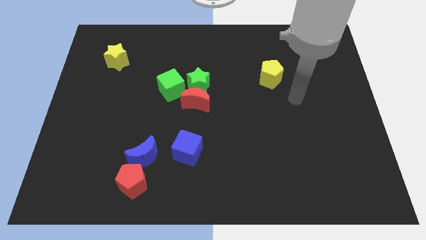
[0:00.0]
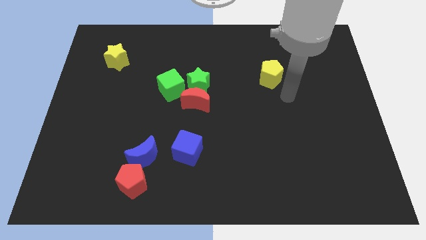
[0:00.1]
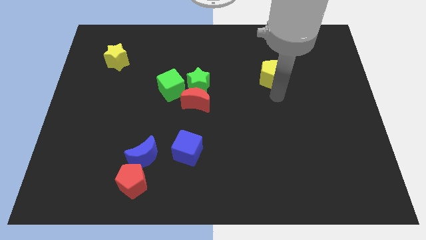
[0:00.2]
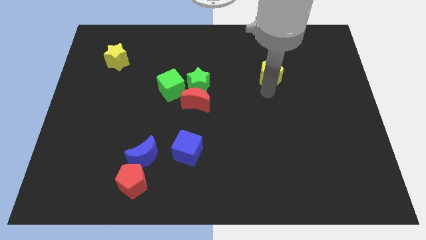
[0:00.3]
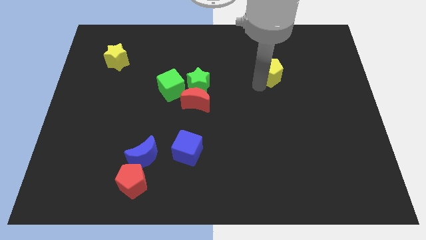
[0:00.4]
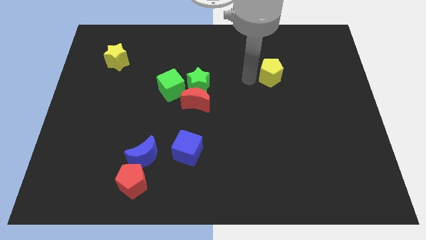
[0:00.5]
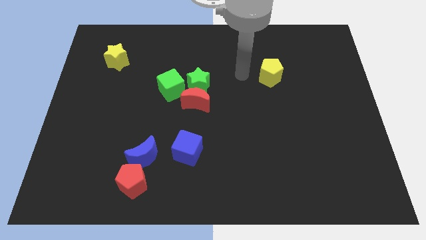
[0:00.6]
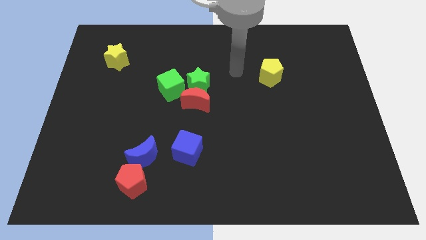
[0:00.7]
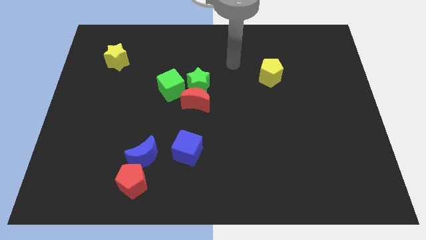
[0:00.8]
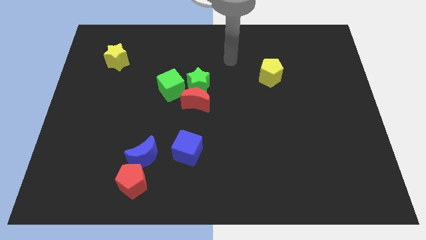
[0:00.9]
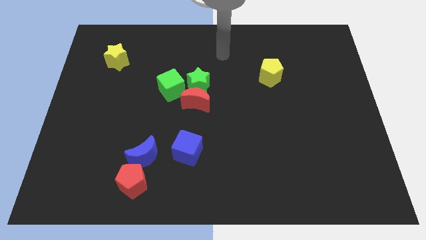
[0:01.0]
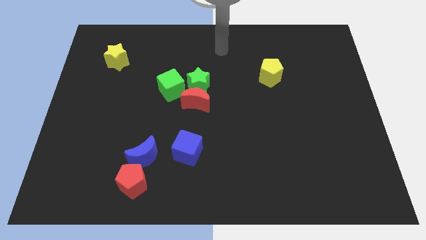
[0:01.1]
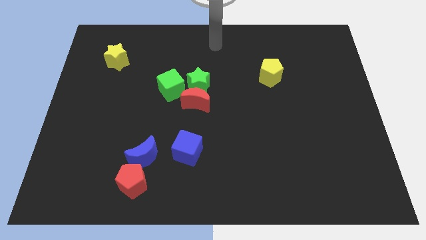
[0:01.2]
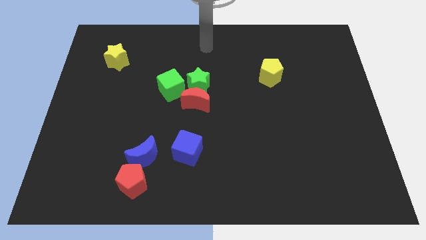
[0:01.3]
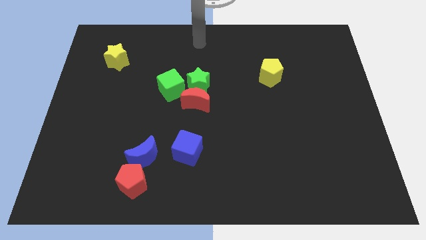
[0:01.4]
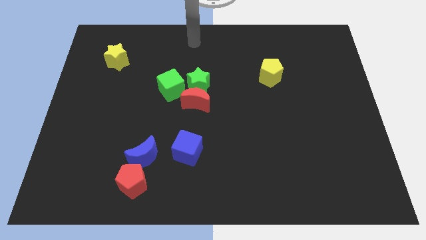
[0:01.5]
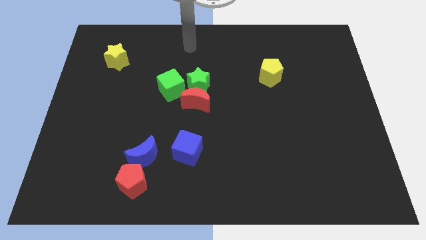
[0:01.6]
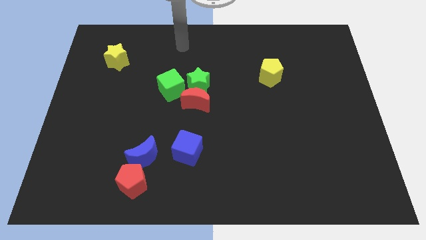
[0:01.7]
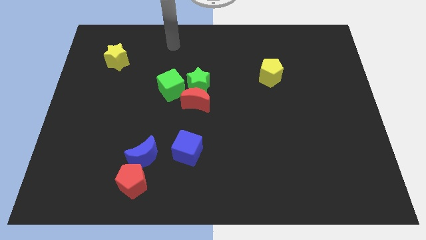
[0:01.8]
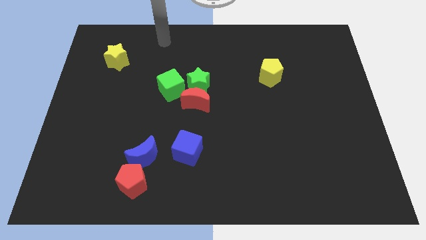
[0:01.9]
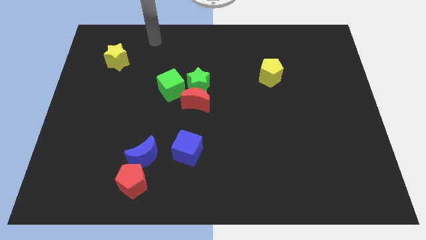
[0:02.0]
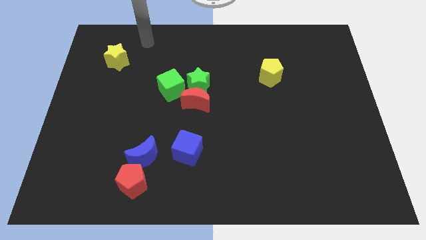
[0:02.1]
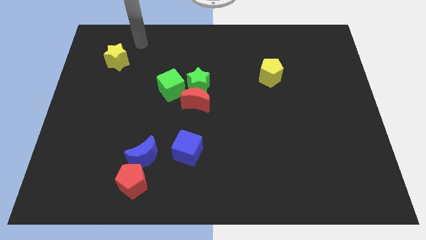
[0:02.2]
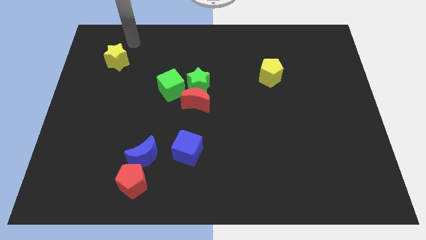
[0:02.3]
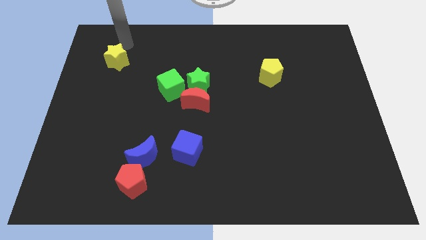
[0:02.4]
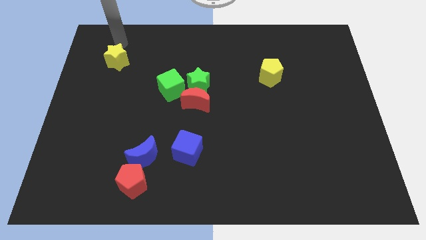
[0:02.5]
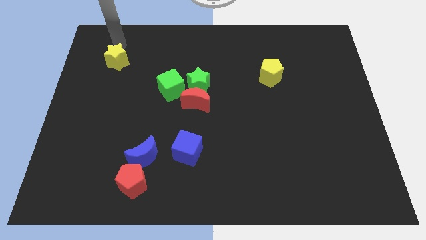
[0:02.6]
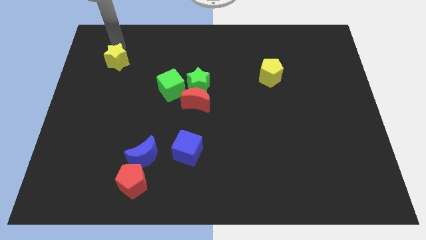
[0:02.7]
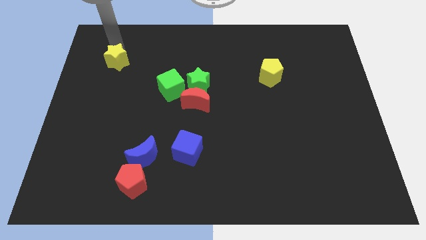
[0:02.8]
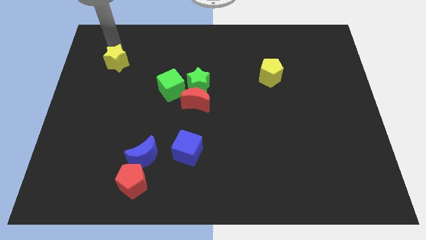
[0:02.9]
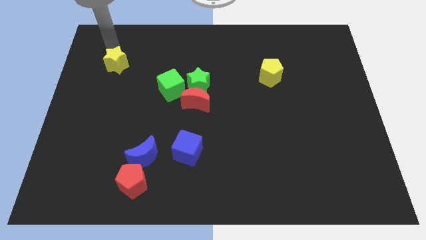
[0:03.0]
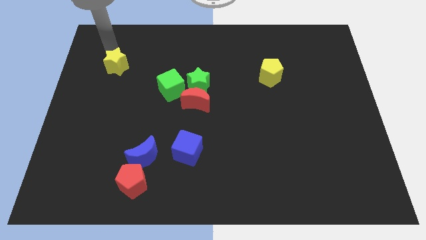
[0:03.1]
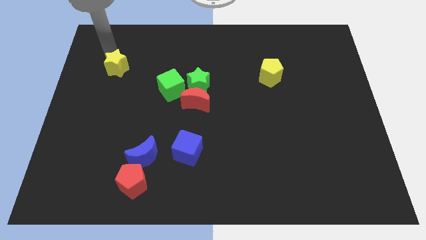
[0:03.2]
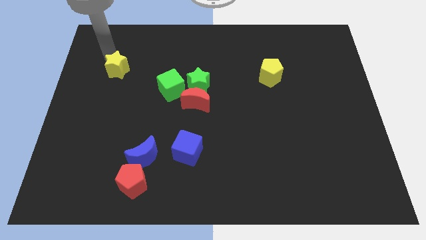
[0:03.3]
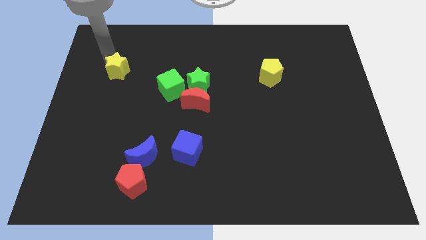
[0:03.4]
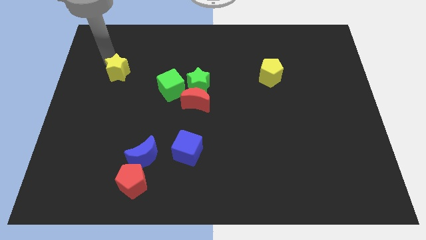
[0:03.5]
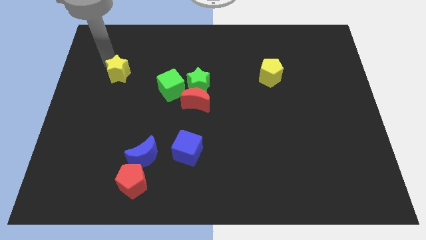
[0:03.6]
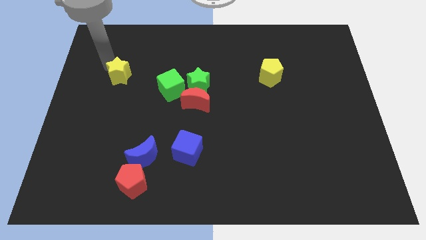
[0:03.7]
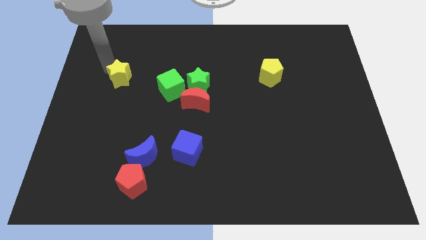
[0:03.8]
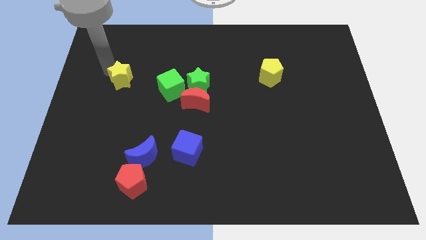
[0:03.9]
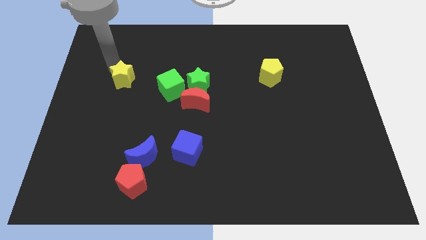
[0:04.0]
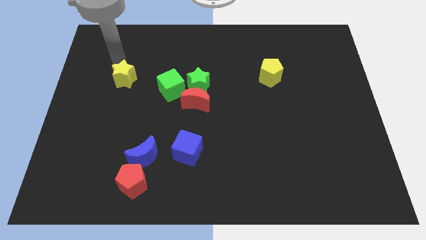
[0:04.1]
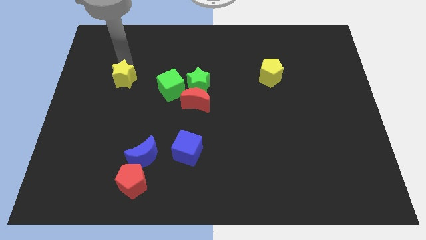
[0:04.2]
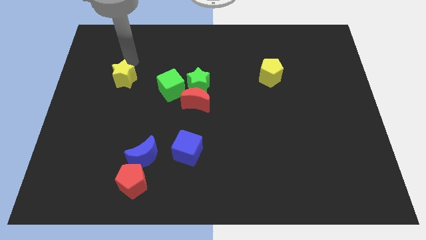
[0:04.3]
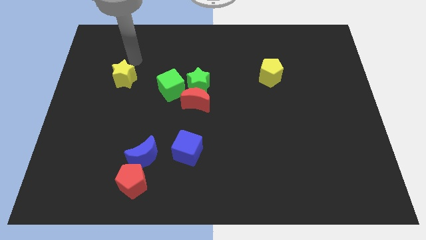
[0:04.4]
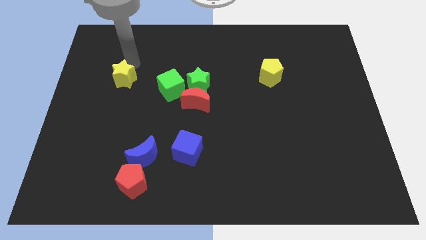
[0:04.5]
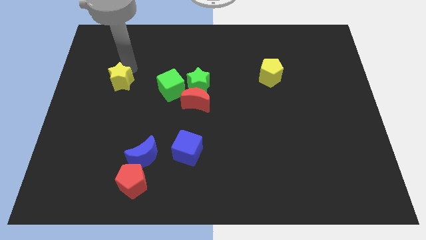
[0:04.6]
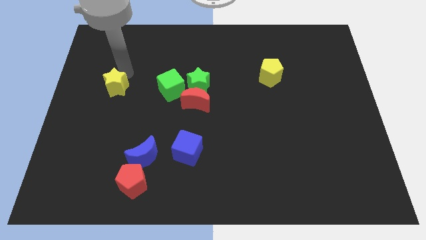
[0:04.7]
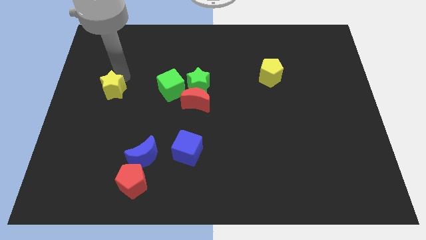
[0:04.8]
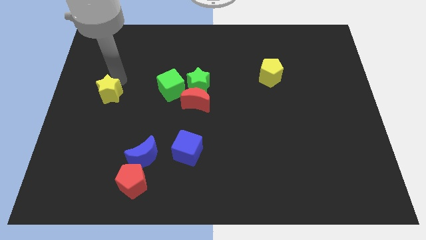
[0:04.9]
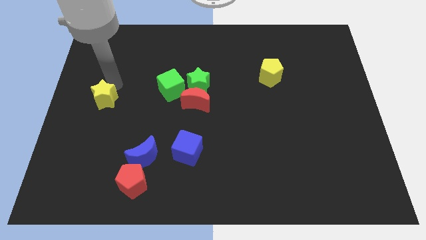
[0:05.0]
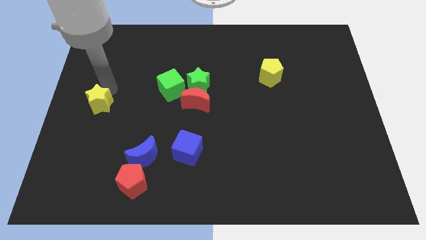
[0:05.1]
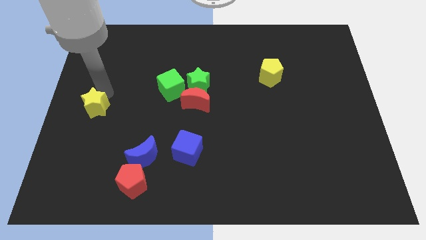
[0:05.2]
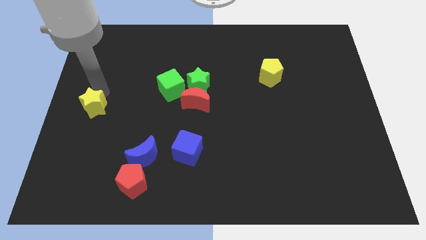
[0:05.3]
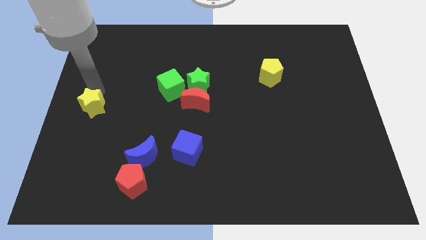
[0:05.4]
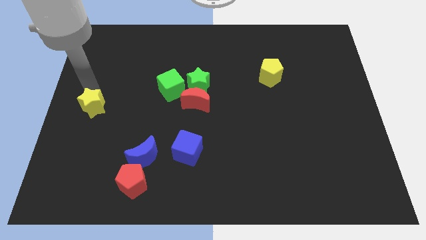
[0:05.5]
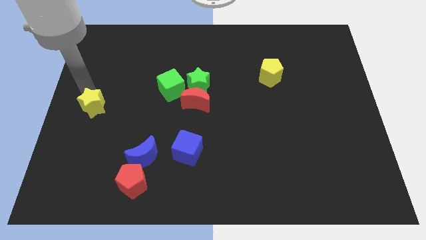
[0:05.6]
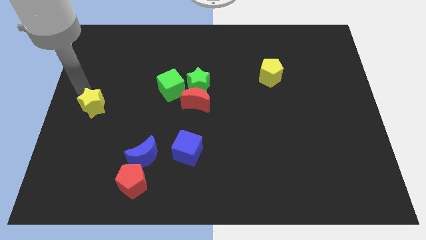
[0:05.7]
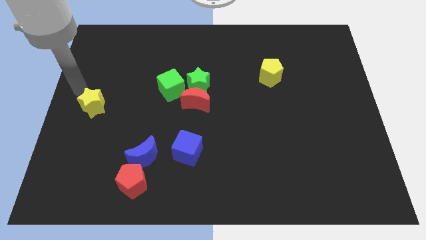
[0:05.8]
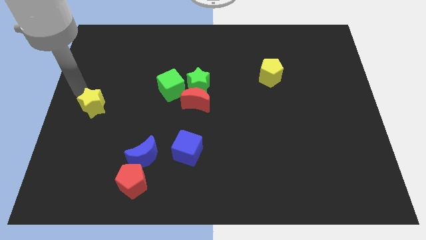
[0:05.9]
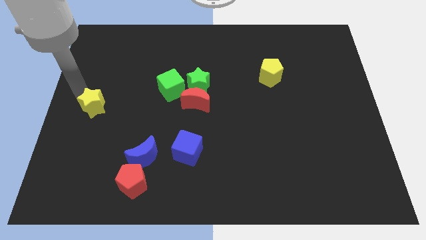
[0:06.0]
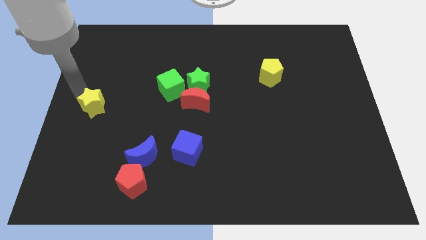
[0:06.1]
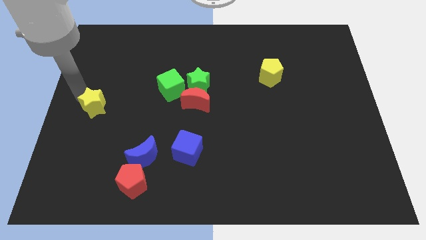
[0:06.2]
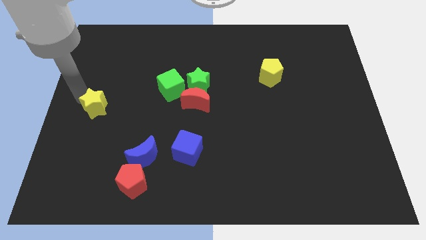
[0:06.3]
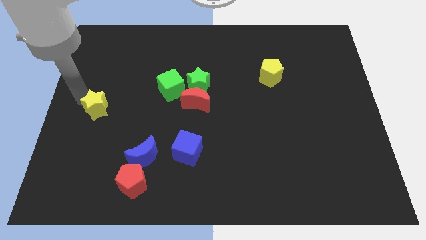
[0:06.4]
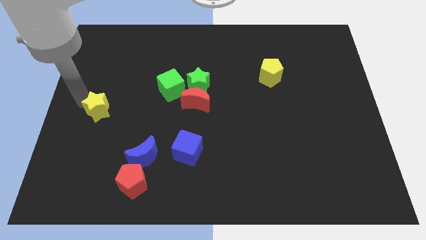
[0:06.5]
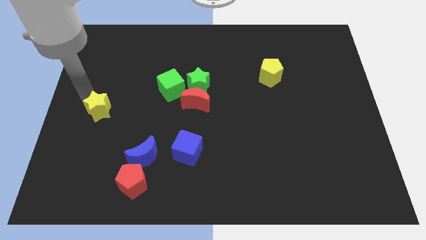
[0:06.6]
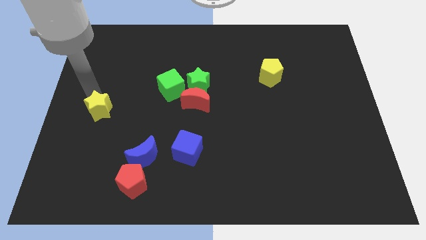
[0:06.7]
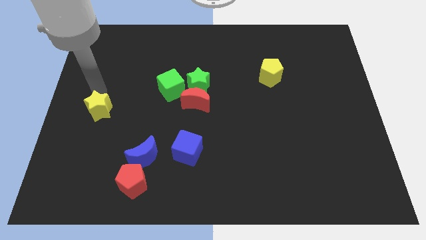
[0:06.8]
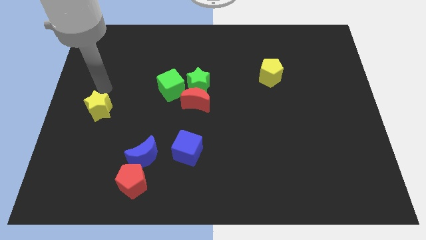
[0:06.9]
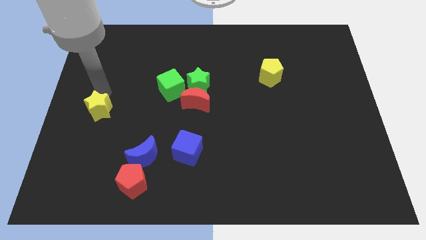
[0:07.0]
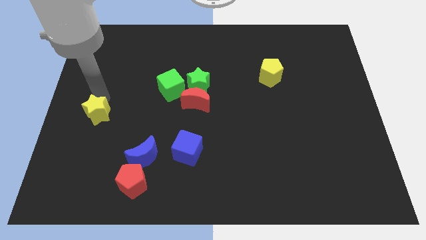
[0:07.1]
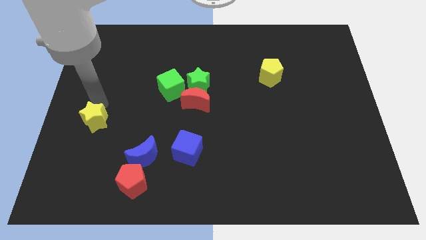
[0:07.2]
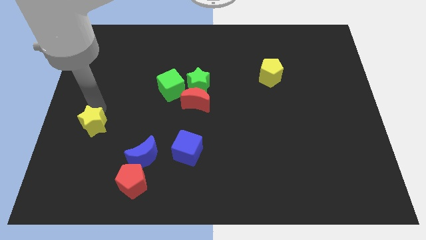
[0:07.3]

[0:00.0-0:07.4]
move the yellow star down

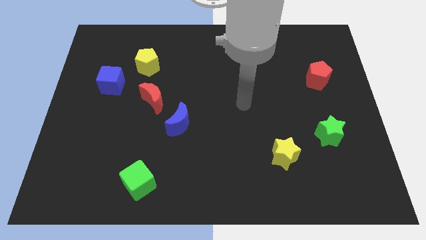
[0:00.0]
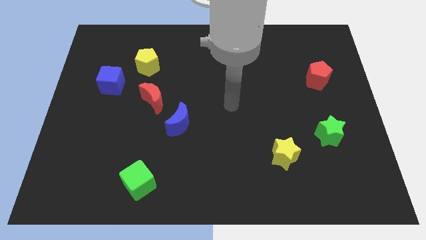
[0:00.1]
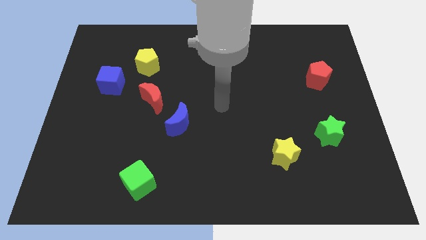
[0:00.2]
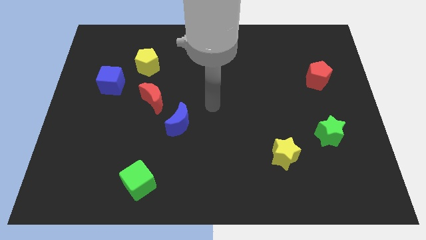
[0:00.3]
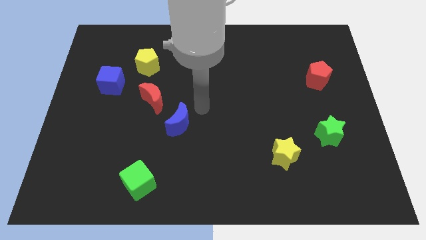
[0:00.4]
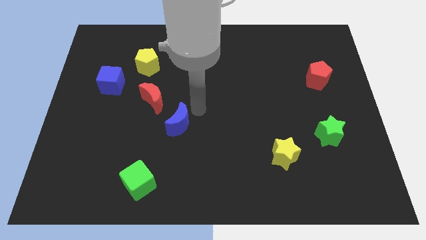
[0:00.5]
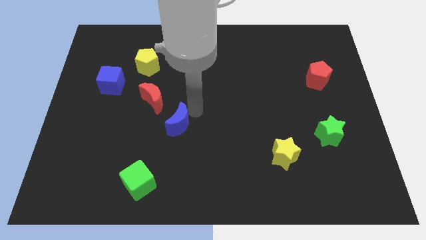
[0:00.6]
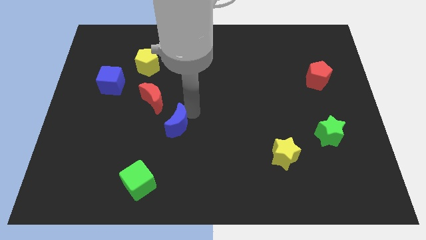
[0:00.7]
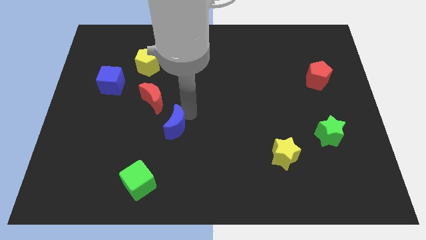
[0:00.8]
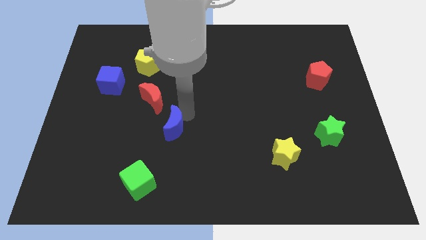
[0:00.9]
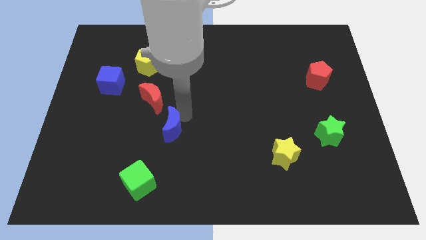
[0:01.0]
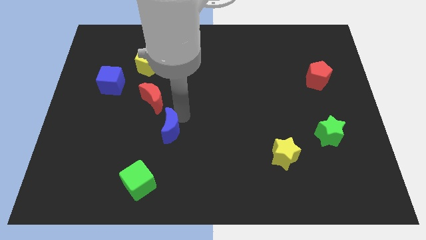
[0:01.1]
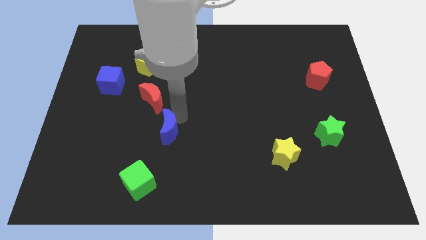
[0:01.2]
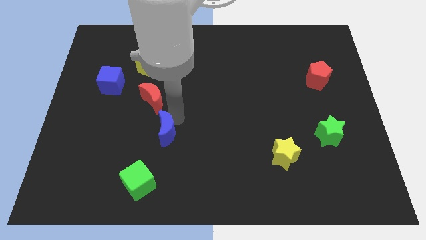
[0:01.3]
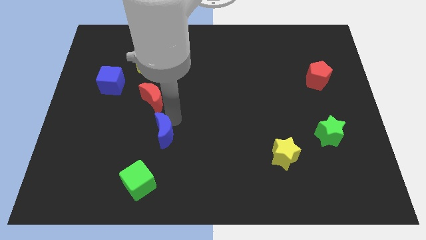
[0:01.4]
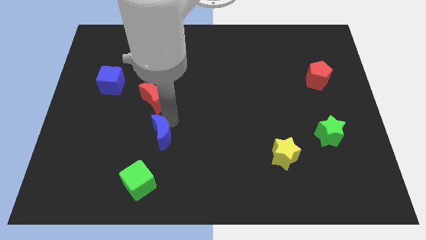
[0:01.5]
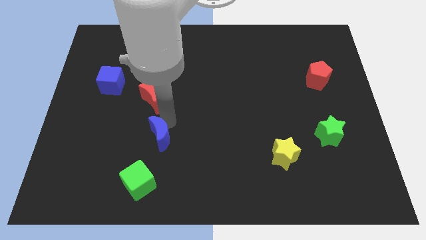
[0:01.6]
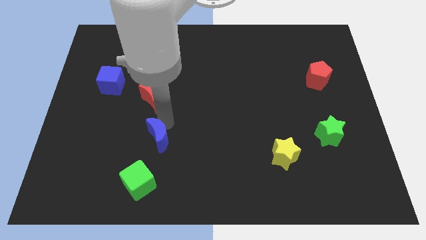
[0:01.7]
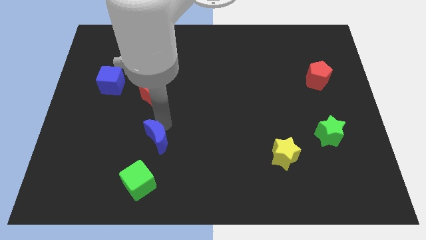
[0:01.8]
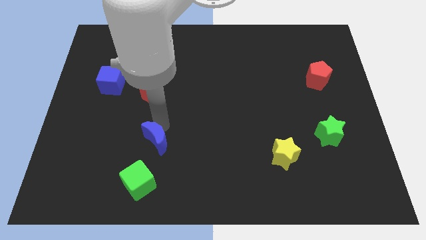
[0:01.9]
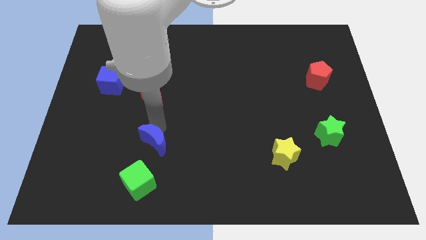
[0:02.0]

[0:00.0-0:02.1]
push the blue moon a little diagonally down and left
